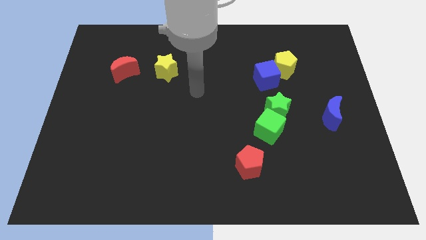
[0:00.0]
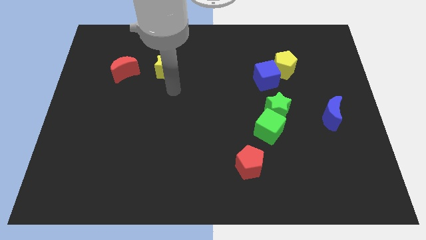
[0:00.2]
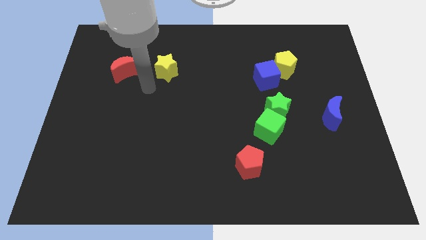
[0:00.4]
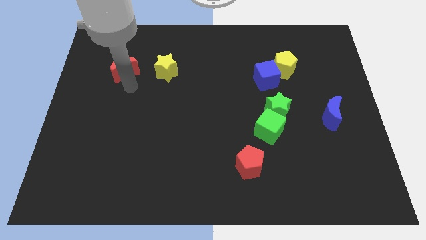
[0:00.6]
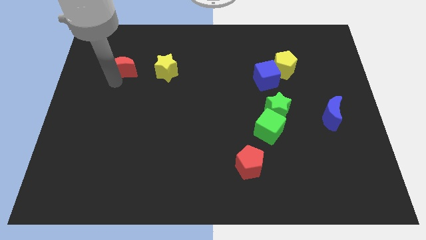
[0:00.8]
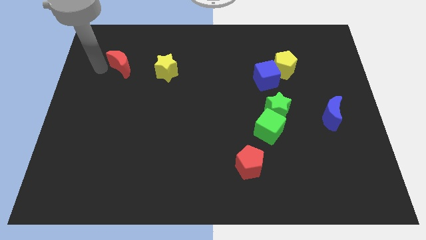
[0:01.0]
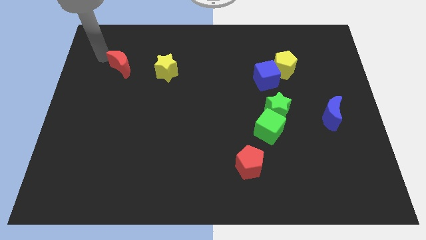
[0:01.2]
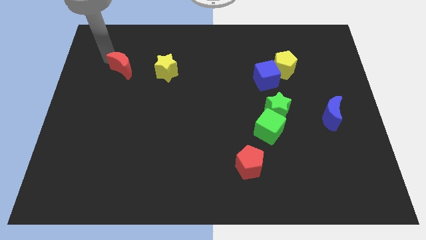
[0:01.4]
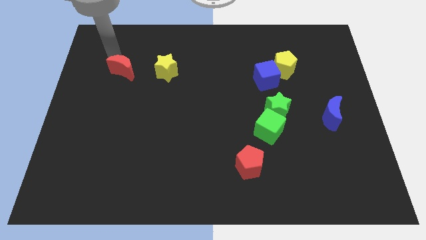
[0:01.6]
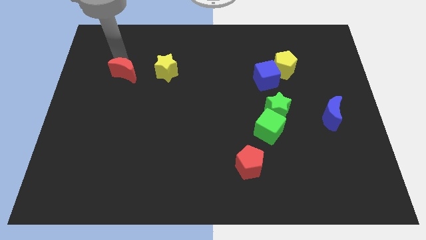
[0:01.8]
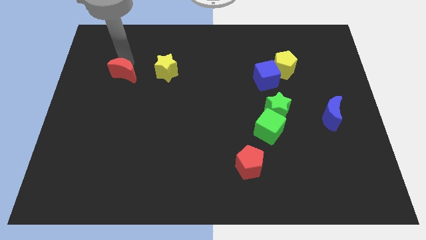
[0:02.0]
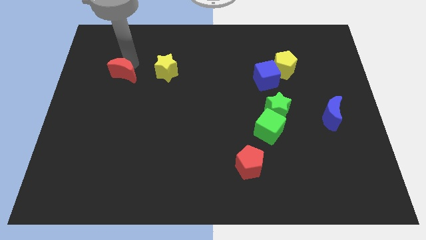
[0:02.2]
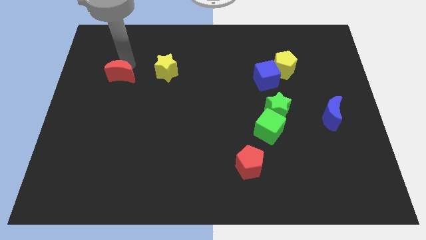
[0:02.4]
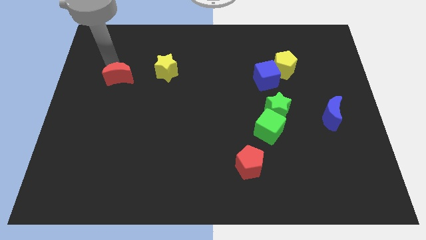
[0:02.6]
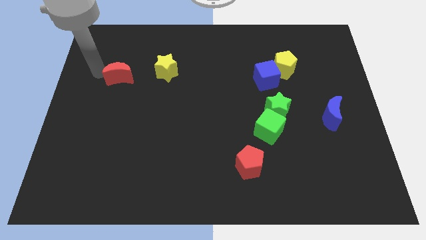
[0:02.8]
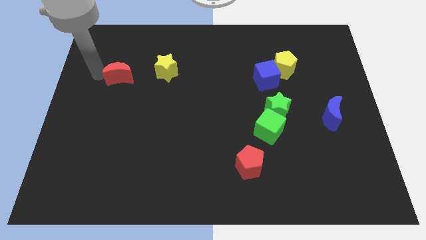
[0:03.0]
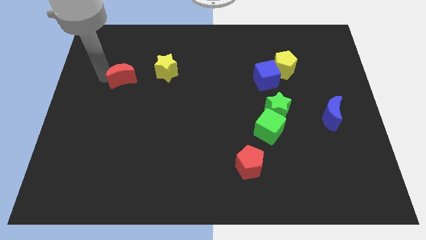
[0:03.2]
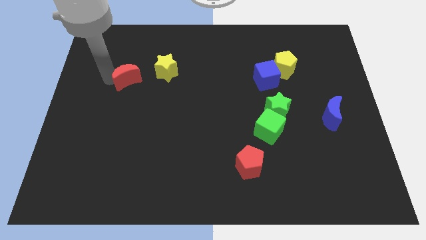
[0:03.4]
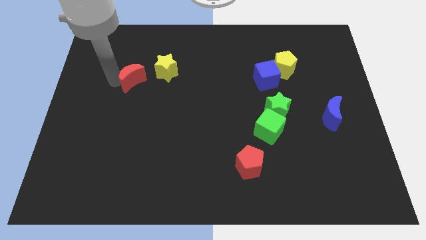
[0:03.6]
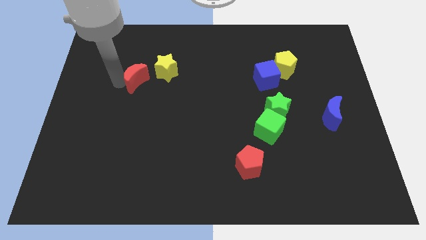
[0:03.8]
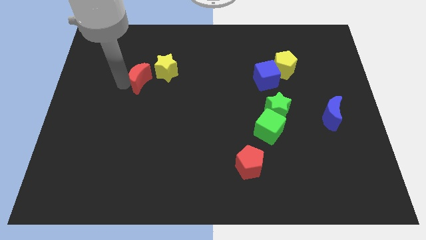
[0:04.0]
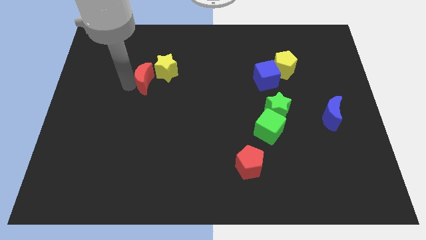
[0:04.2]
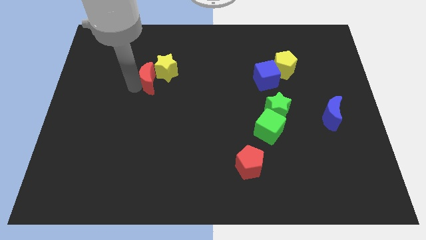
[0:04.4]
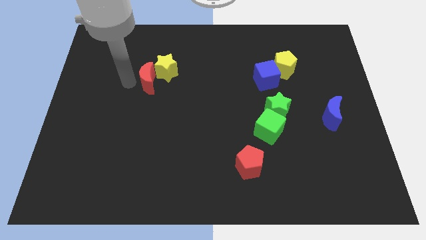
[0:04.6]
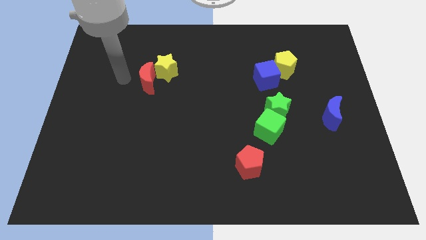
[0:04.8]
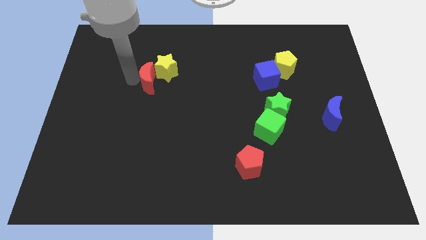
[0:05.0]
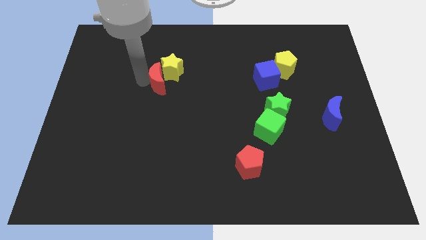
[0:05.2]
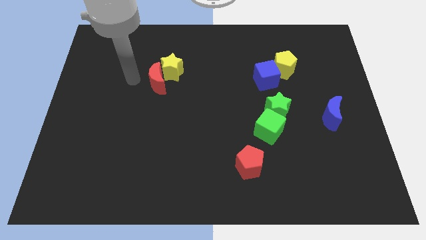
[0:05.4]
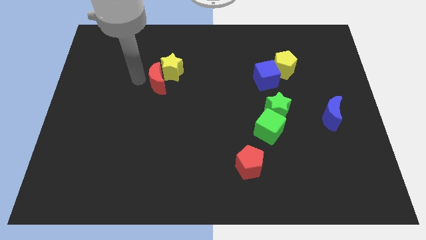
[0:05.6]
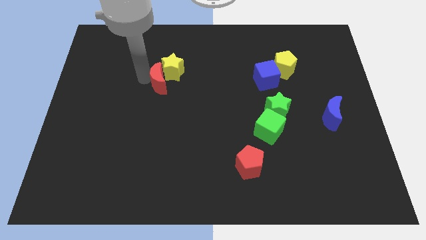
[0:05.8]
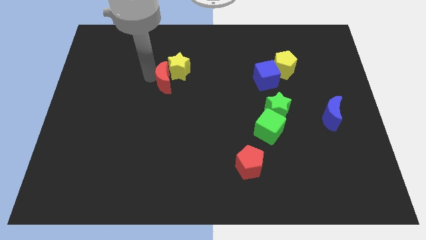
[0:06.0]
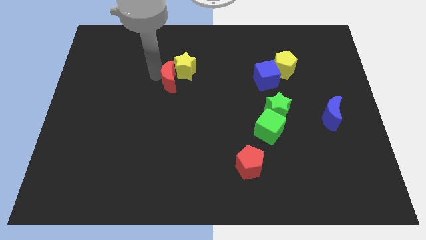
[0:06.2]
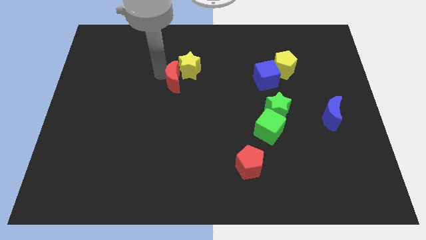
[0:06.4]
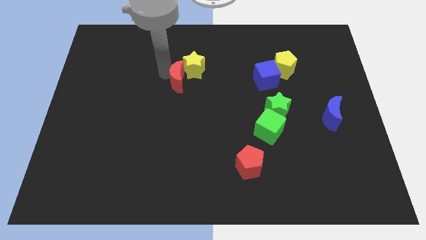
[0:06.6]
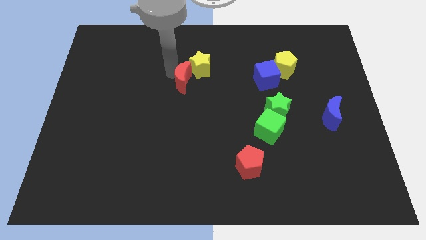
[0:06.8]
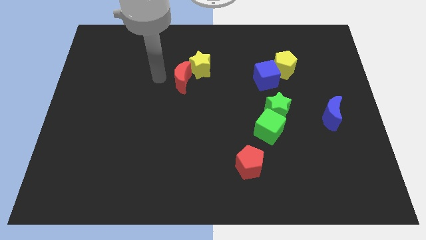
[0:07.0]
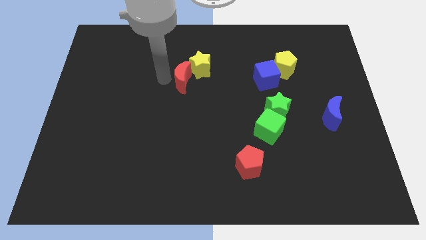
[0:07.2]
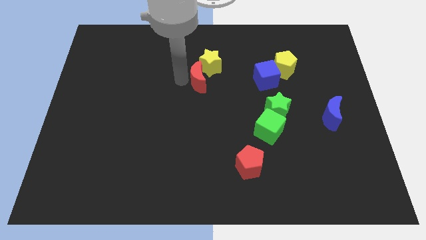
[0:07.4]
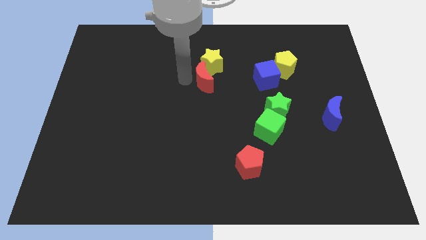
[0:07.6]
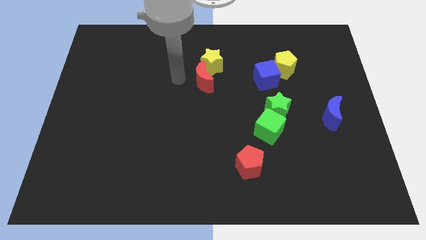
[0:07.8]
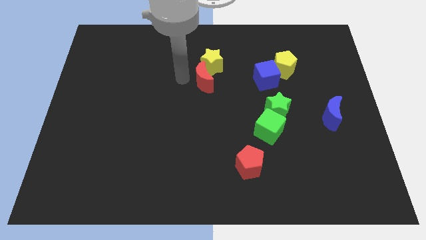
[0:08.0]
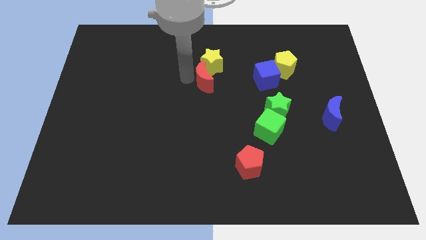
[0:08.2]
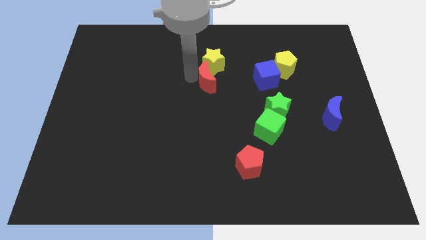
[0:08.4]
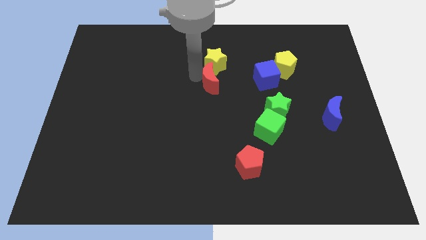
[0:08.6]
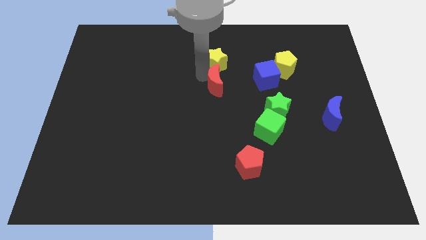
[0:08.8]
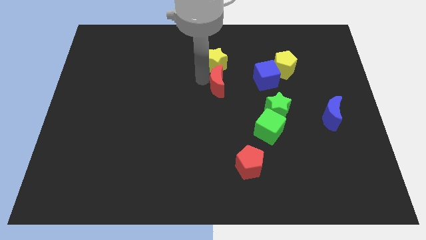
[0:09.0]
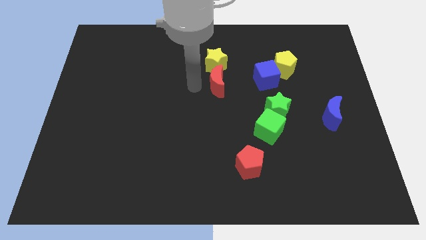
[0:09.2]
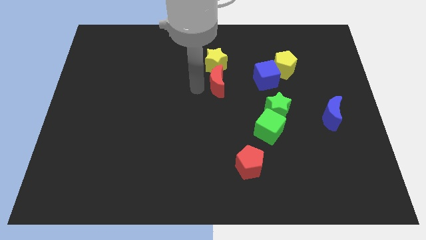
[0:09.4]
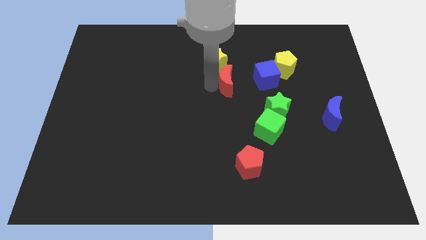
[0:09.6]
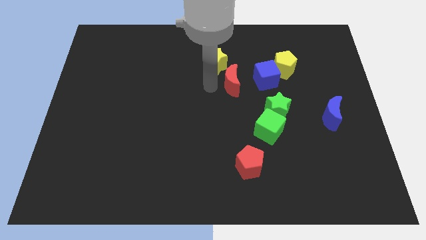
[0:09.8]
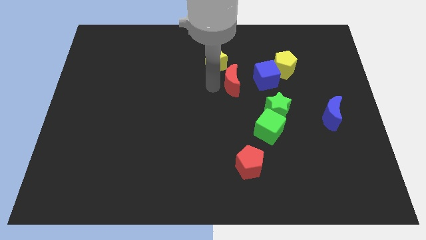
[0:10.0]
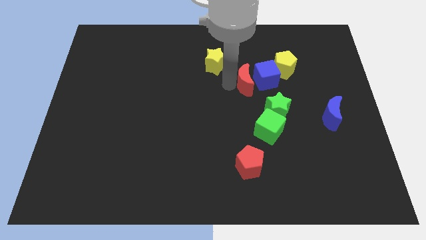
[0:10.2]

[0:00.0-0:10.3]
slide the red moon next to the blue cube

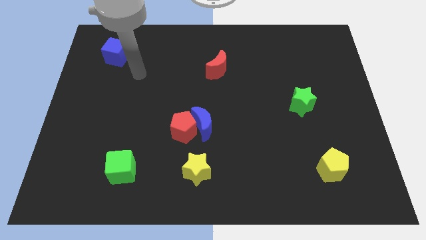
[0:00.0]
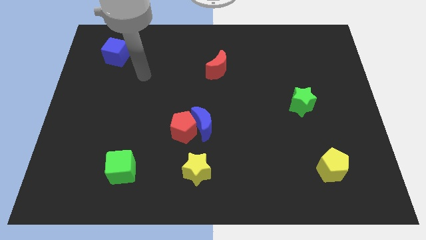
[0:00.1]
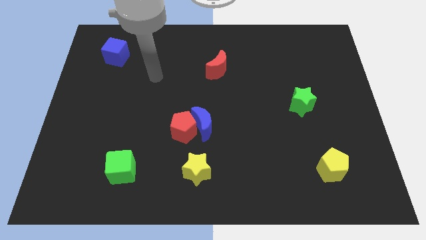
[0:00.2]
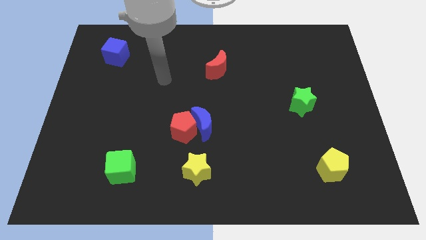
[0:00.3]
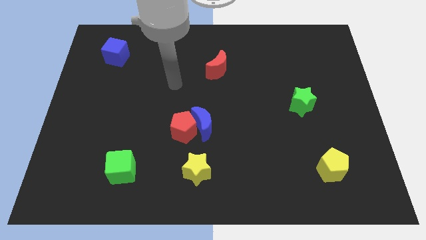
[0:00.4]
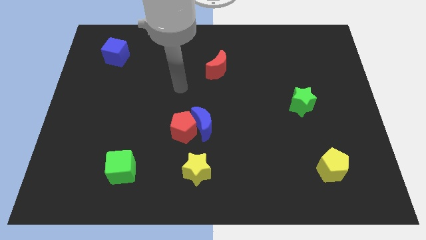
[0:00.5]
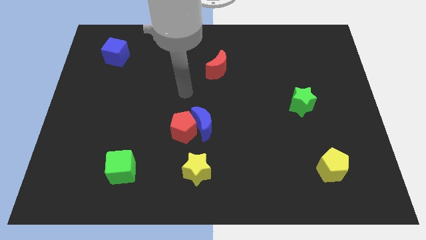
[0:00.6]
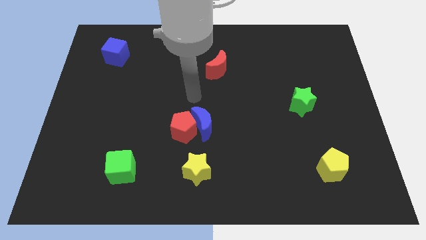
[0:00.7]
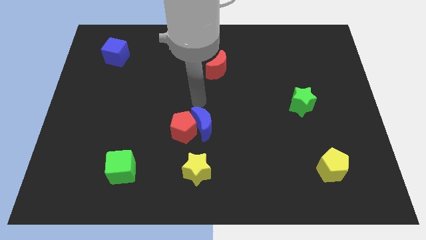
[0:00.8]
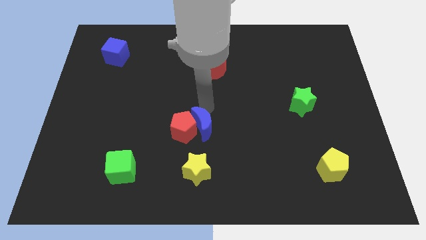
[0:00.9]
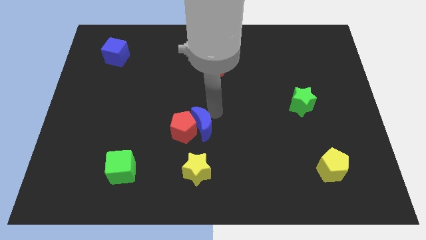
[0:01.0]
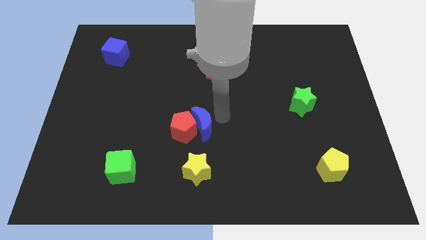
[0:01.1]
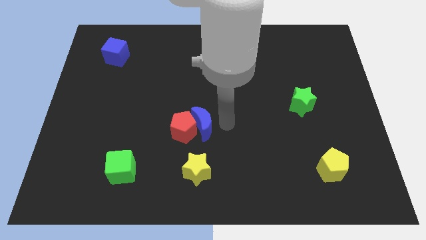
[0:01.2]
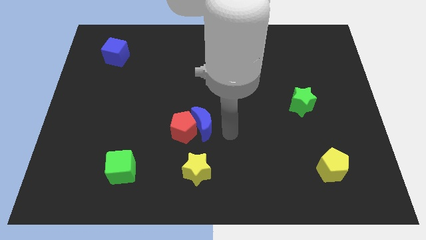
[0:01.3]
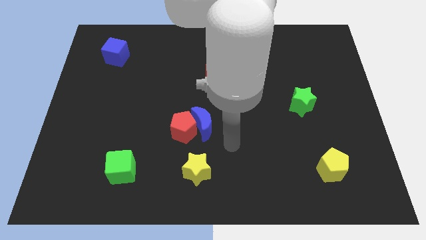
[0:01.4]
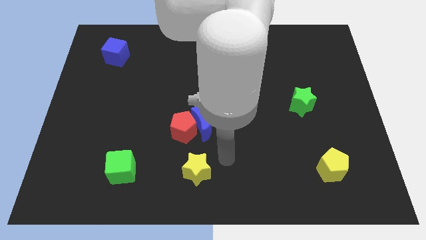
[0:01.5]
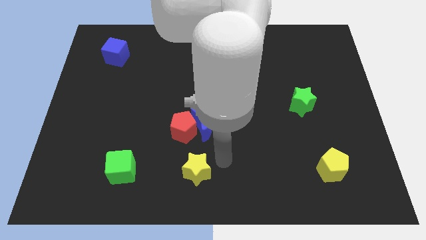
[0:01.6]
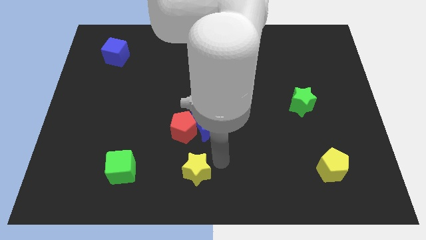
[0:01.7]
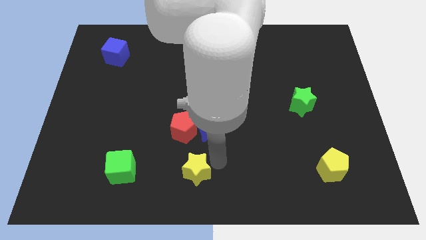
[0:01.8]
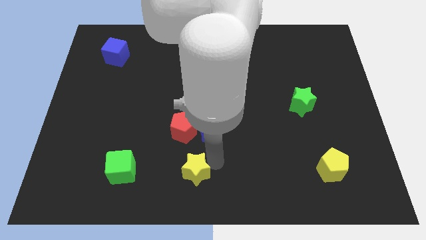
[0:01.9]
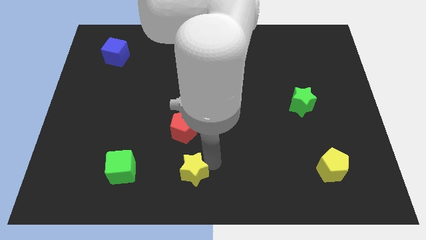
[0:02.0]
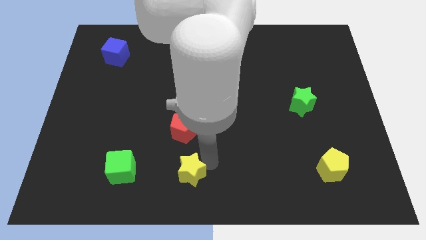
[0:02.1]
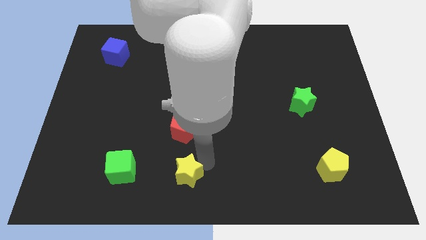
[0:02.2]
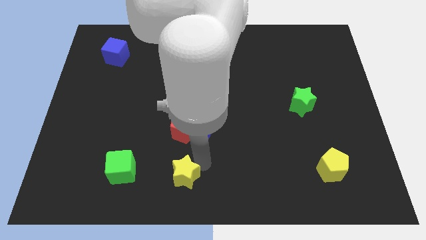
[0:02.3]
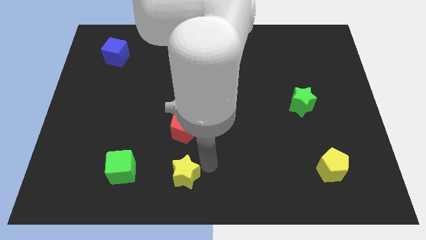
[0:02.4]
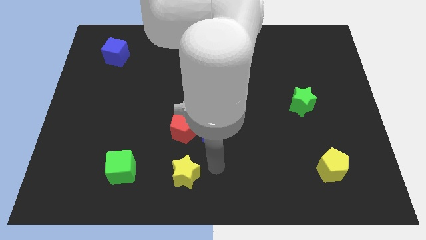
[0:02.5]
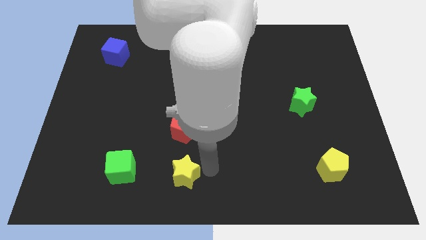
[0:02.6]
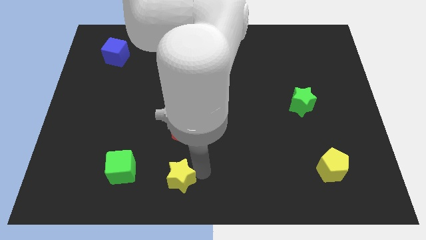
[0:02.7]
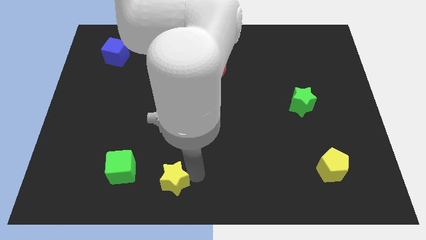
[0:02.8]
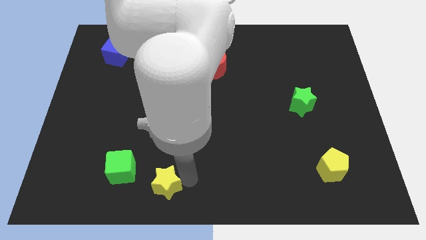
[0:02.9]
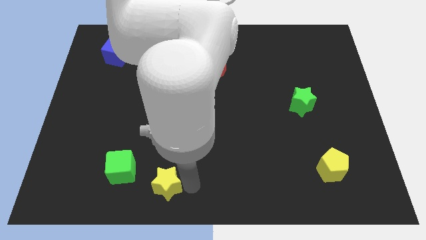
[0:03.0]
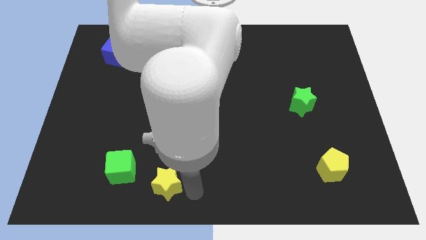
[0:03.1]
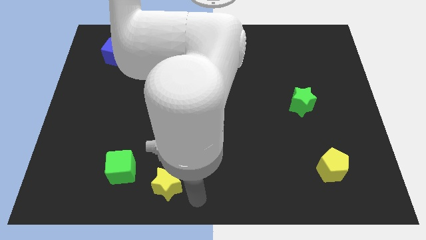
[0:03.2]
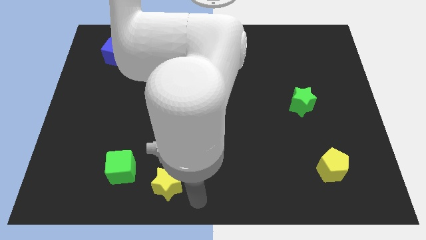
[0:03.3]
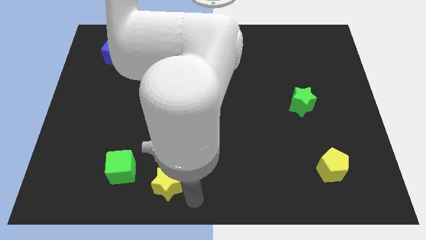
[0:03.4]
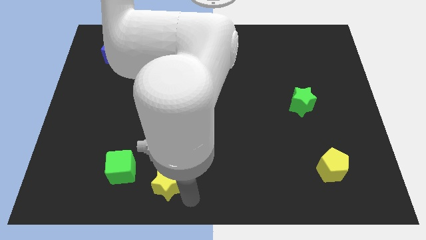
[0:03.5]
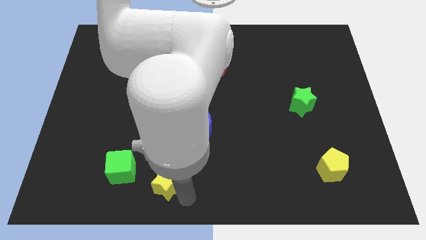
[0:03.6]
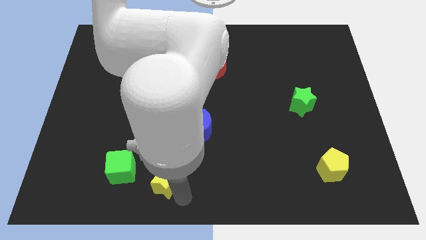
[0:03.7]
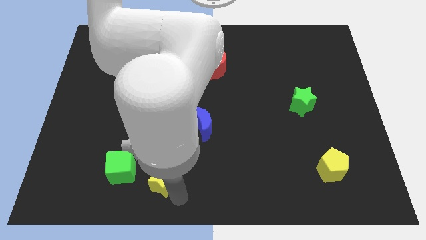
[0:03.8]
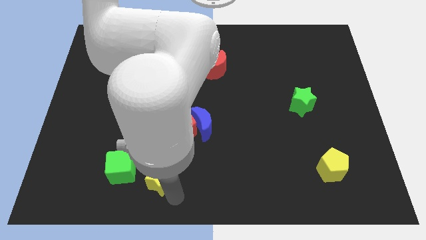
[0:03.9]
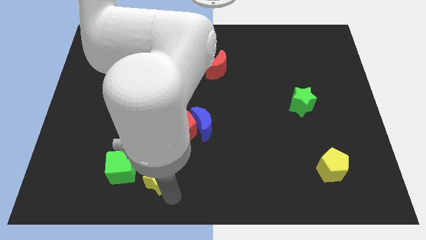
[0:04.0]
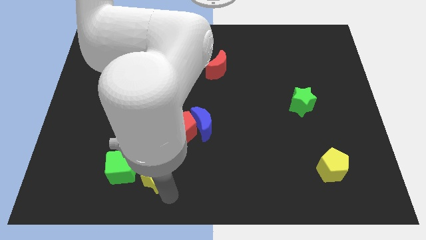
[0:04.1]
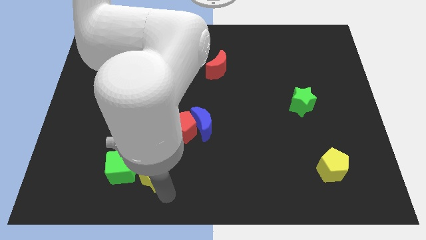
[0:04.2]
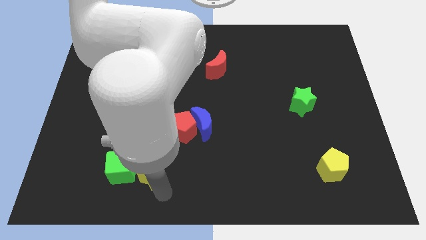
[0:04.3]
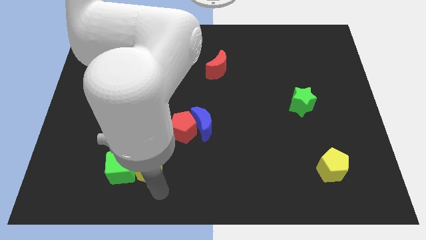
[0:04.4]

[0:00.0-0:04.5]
slide the yellow star next to the green cube
